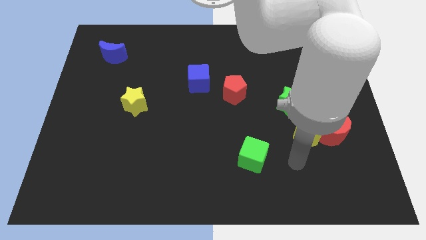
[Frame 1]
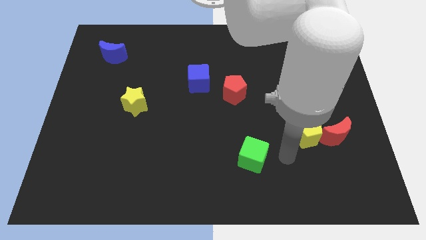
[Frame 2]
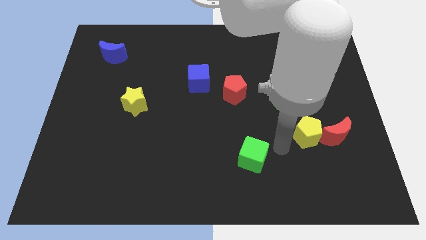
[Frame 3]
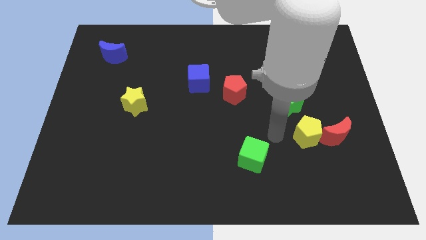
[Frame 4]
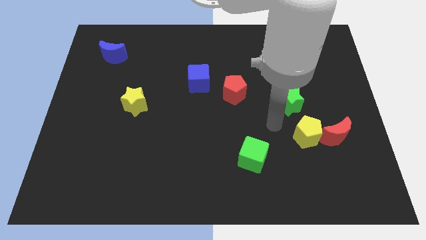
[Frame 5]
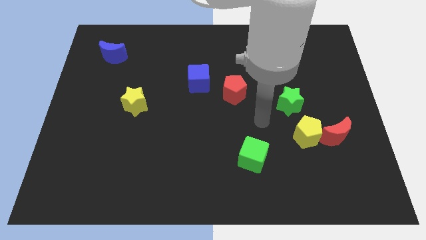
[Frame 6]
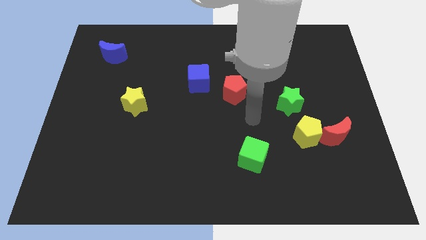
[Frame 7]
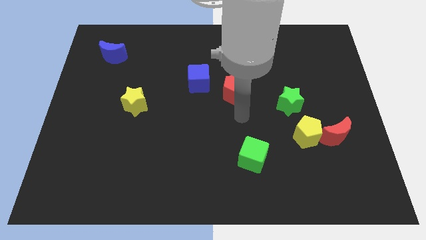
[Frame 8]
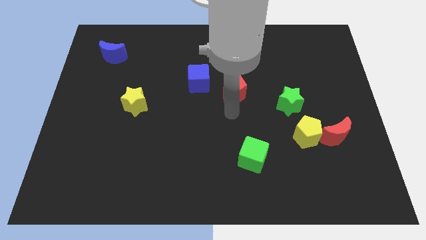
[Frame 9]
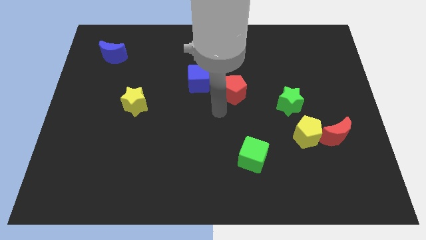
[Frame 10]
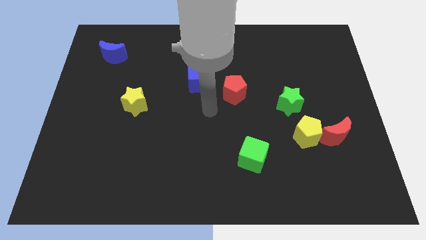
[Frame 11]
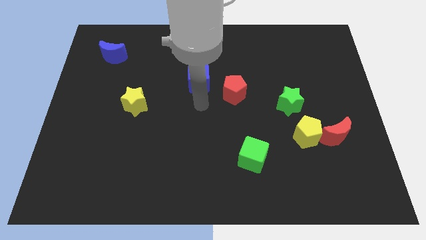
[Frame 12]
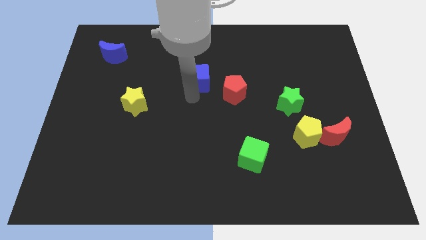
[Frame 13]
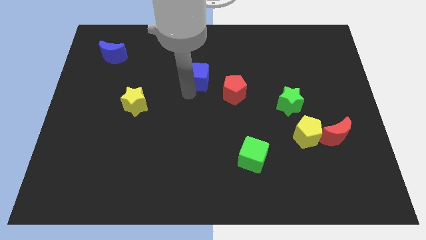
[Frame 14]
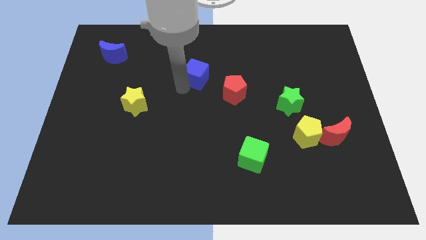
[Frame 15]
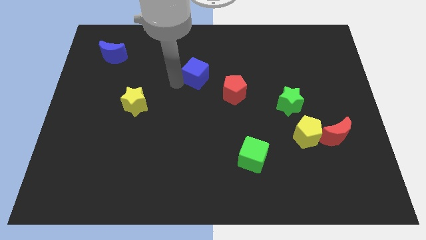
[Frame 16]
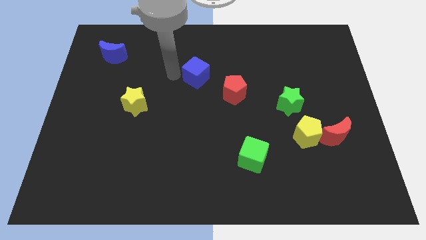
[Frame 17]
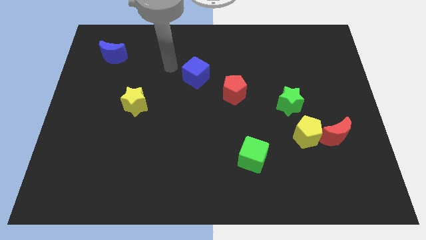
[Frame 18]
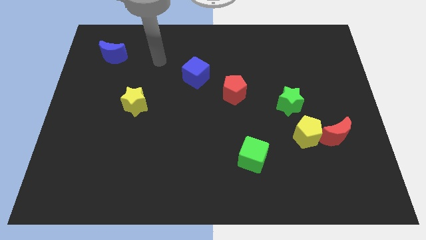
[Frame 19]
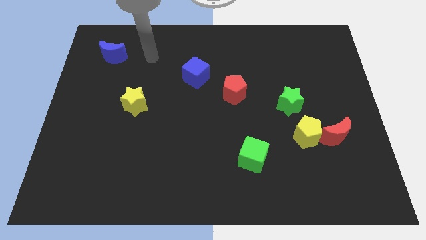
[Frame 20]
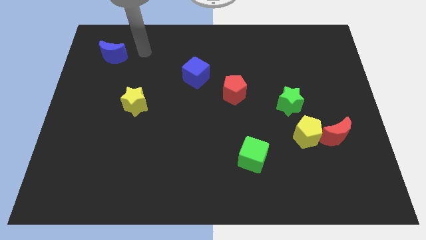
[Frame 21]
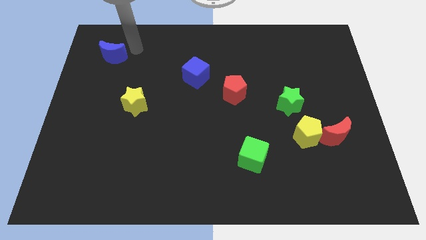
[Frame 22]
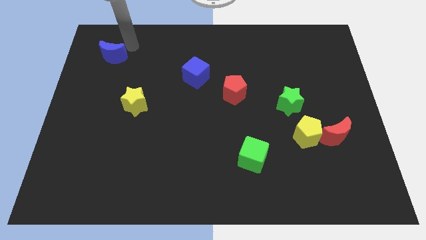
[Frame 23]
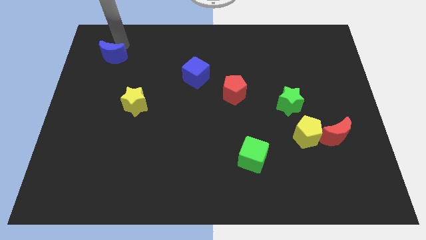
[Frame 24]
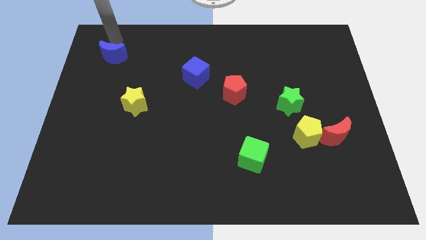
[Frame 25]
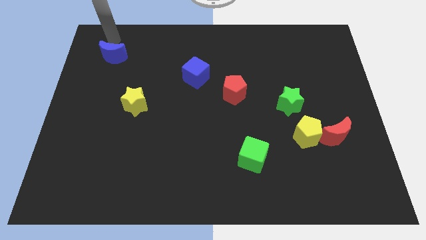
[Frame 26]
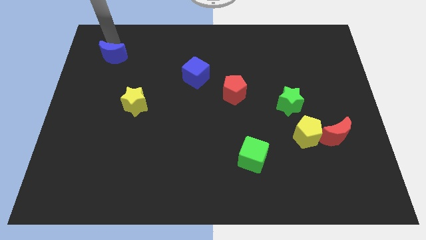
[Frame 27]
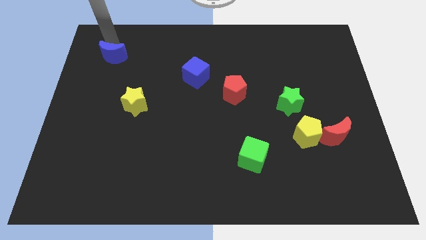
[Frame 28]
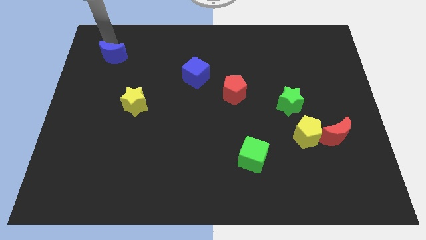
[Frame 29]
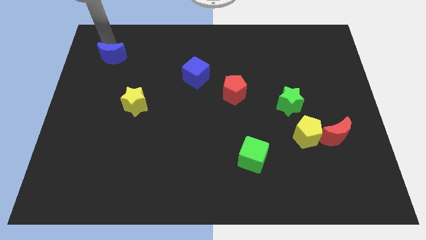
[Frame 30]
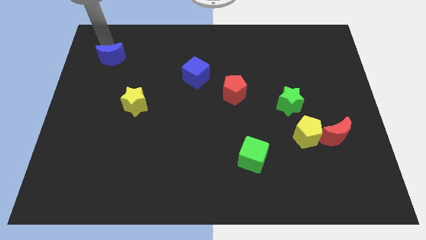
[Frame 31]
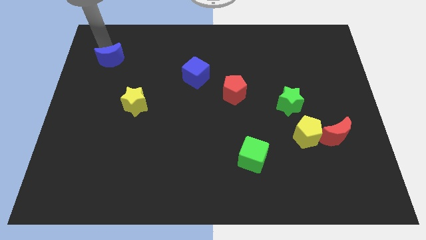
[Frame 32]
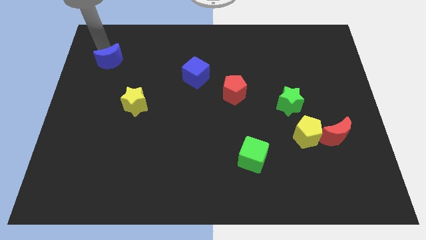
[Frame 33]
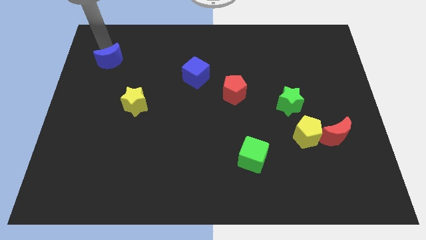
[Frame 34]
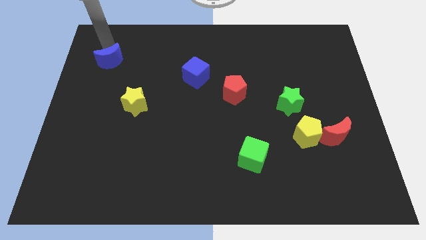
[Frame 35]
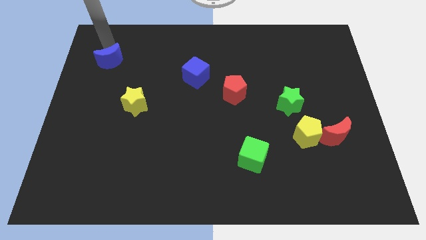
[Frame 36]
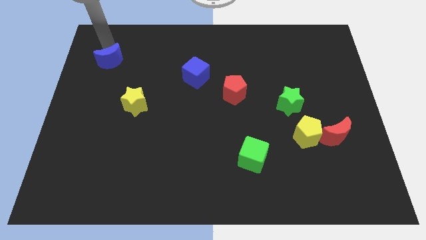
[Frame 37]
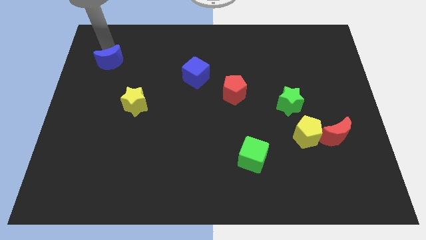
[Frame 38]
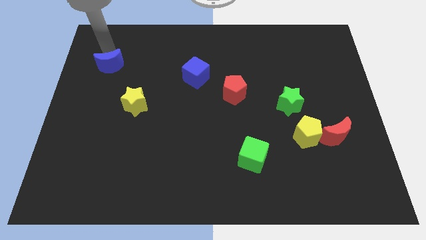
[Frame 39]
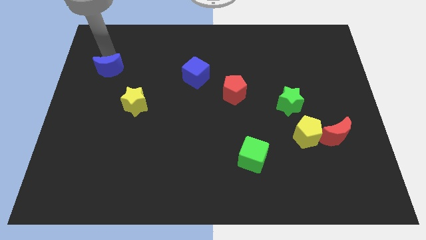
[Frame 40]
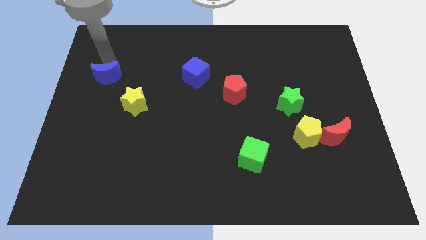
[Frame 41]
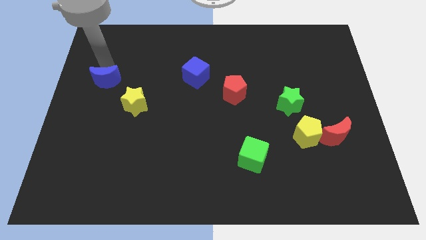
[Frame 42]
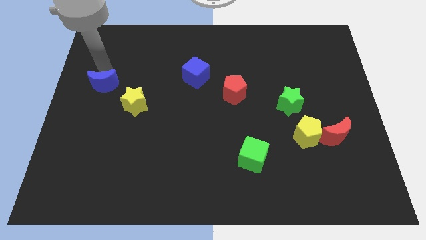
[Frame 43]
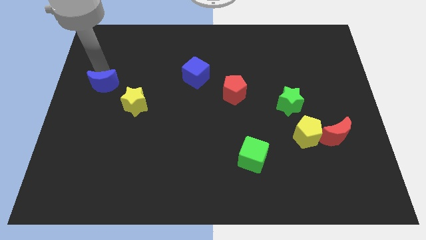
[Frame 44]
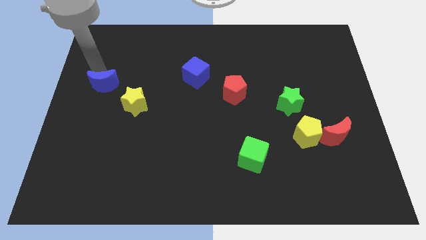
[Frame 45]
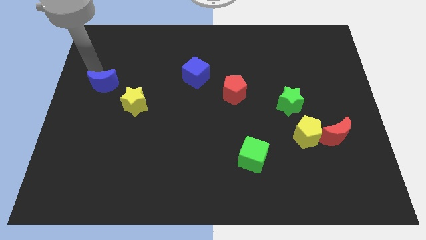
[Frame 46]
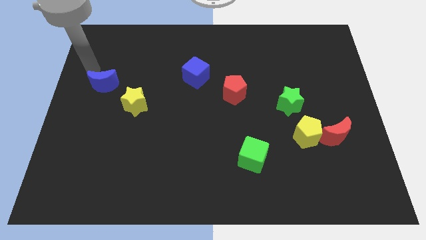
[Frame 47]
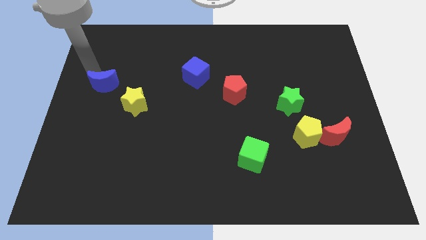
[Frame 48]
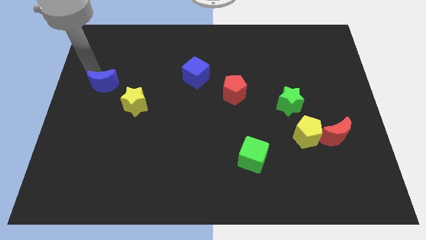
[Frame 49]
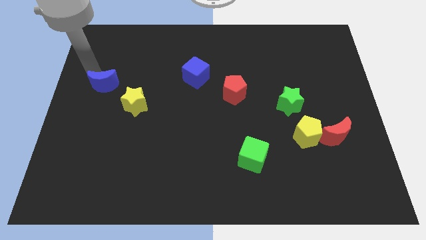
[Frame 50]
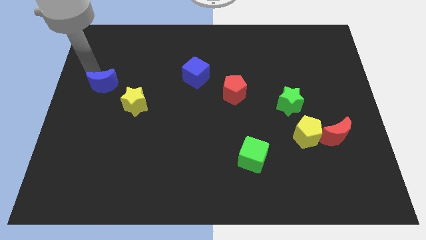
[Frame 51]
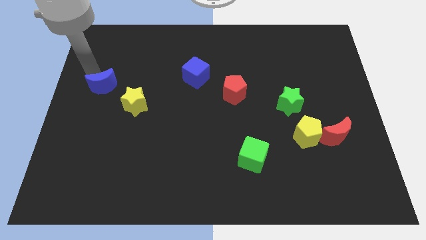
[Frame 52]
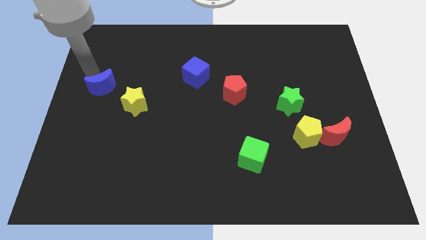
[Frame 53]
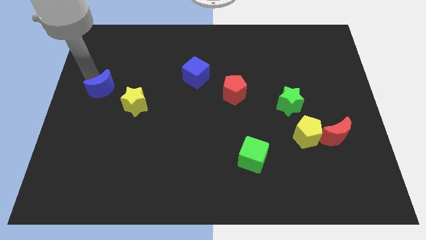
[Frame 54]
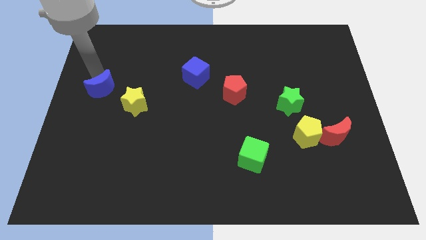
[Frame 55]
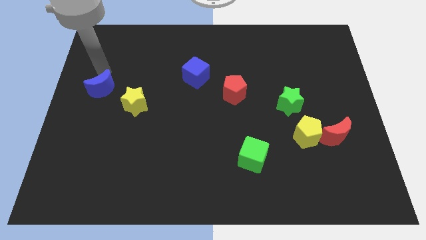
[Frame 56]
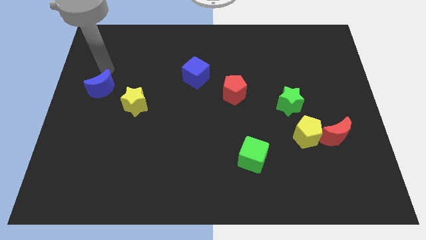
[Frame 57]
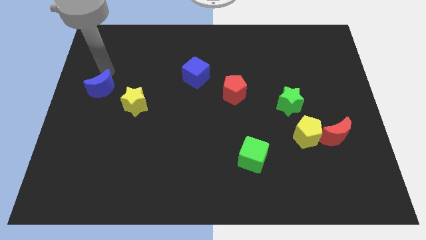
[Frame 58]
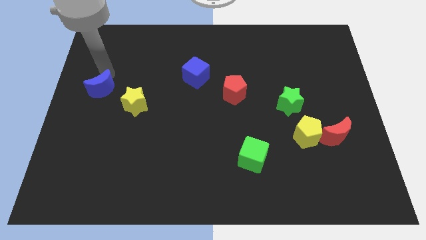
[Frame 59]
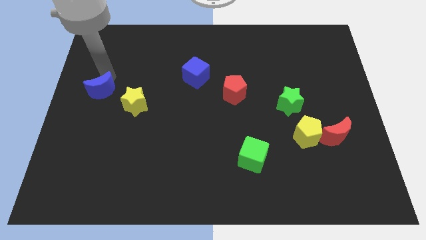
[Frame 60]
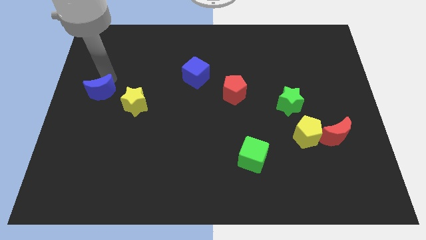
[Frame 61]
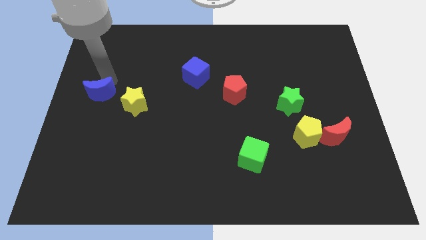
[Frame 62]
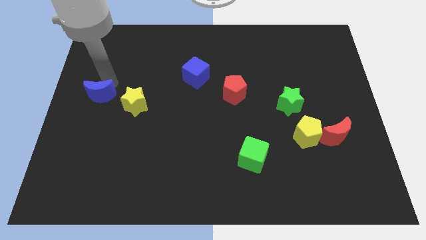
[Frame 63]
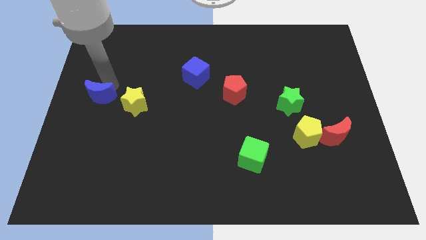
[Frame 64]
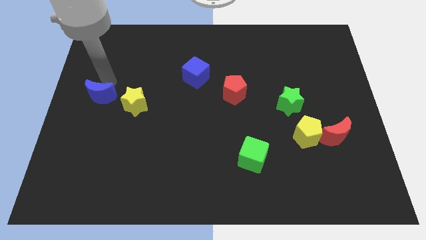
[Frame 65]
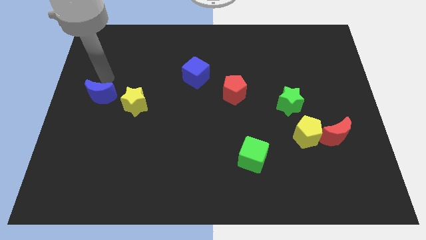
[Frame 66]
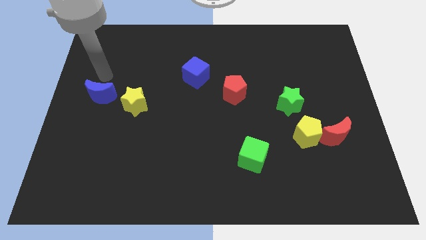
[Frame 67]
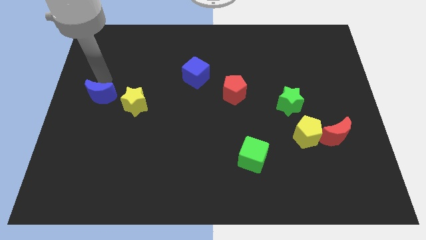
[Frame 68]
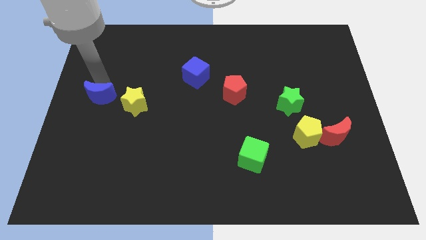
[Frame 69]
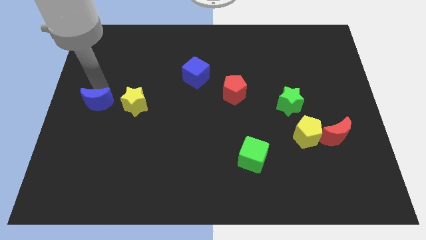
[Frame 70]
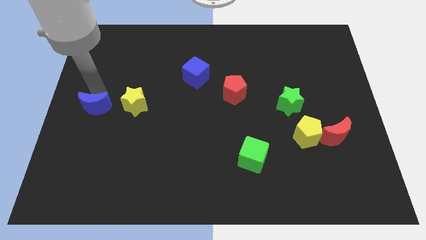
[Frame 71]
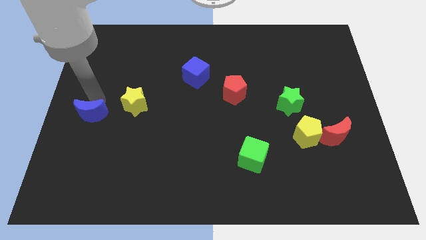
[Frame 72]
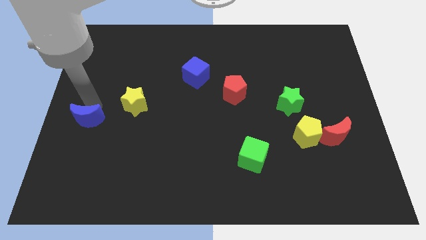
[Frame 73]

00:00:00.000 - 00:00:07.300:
move the blue moon downwards

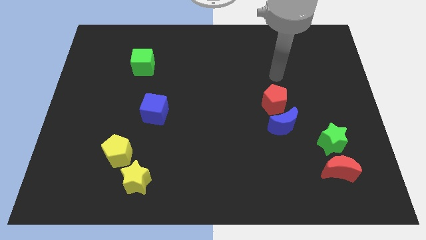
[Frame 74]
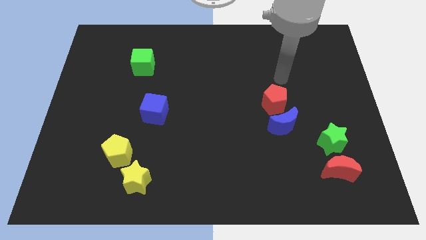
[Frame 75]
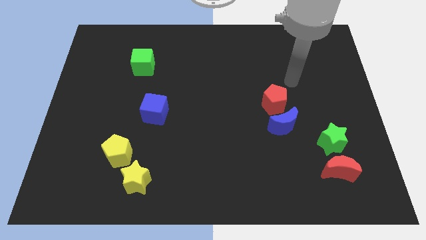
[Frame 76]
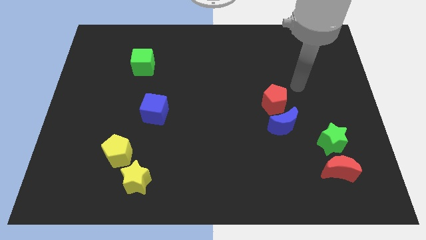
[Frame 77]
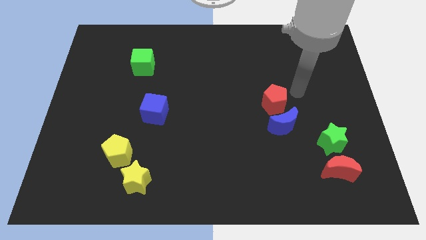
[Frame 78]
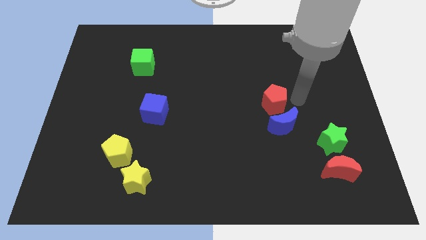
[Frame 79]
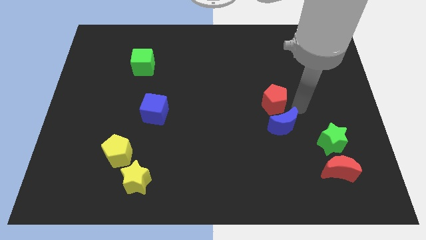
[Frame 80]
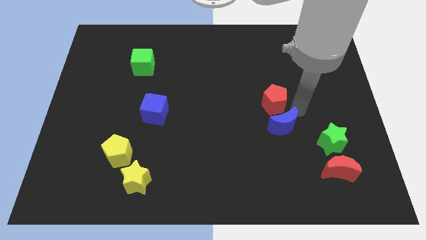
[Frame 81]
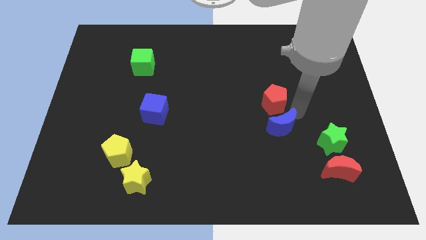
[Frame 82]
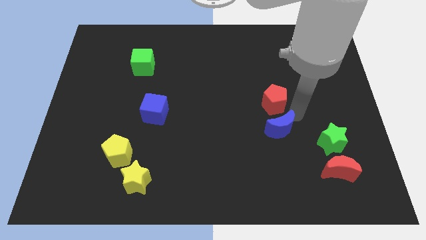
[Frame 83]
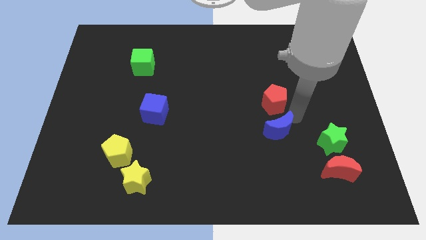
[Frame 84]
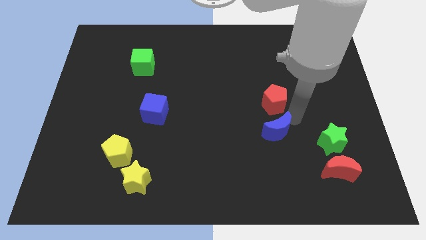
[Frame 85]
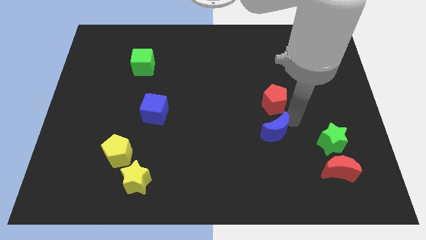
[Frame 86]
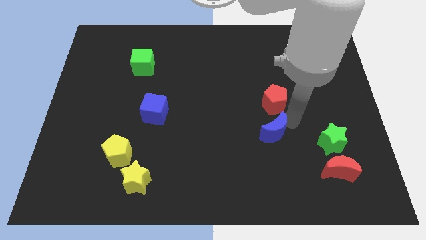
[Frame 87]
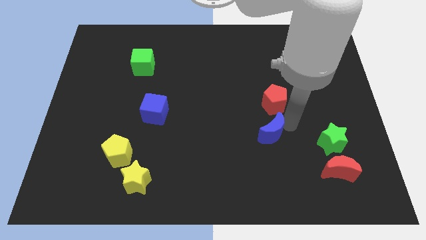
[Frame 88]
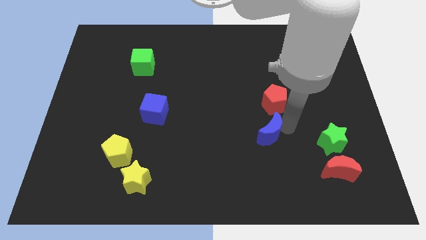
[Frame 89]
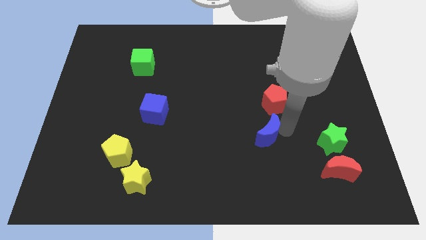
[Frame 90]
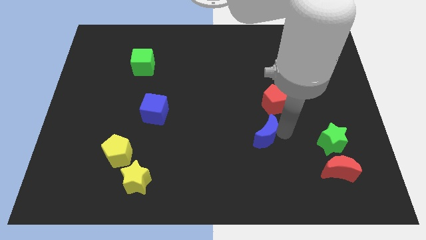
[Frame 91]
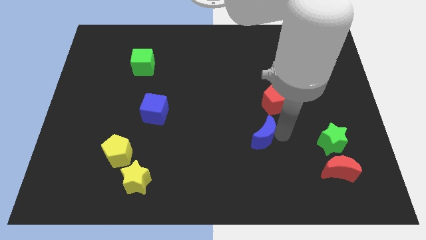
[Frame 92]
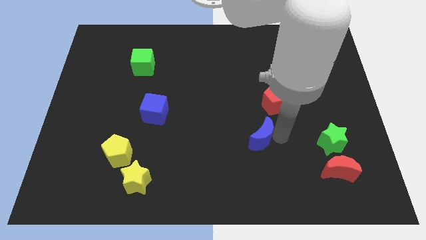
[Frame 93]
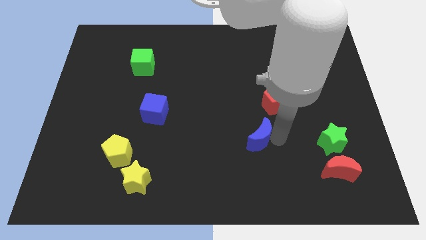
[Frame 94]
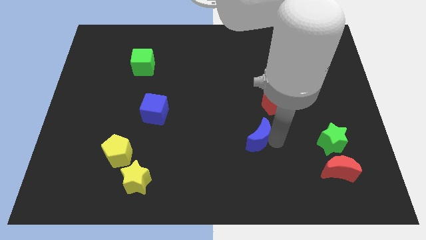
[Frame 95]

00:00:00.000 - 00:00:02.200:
slightly push the blue moon down and to the left diagonally
